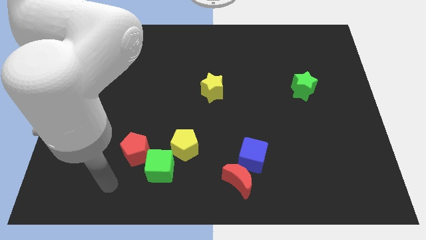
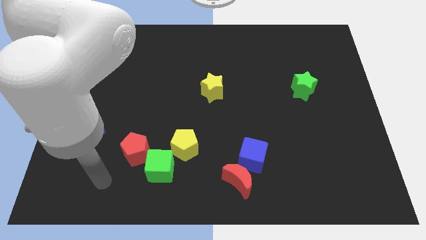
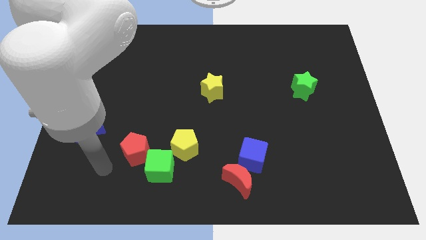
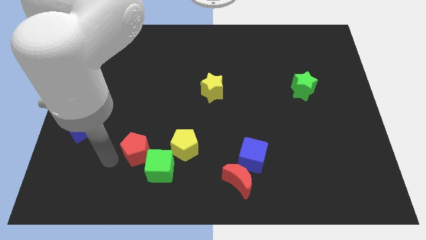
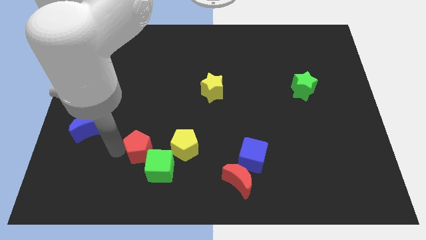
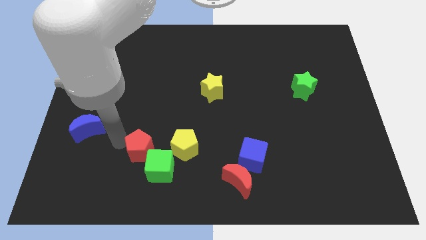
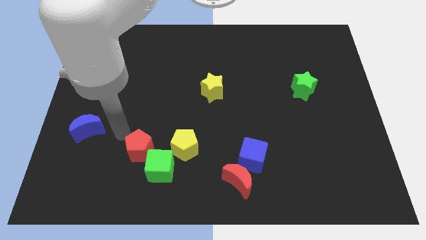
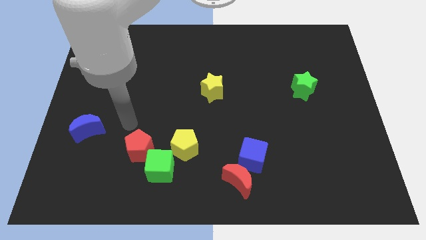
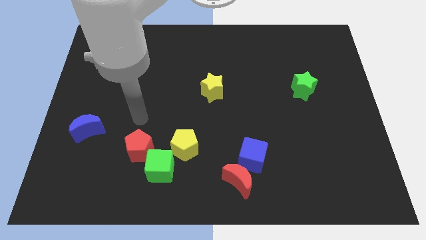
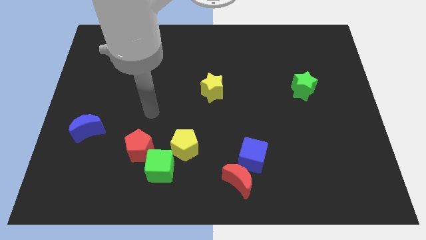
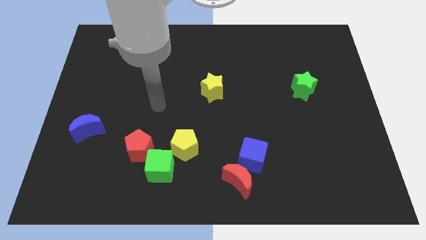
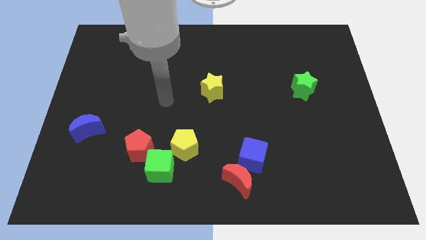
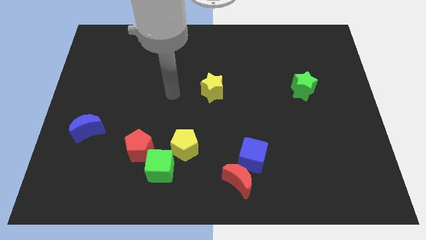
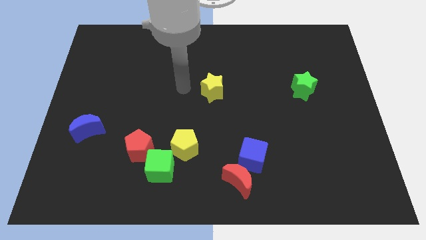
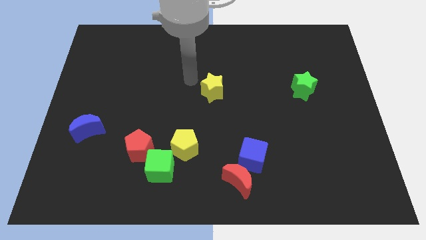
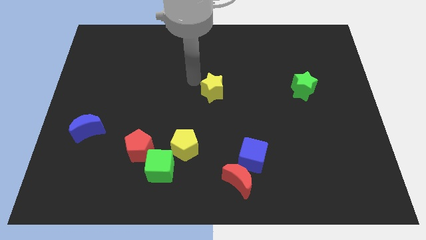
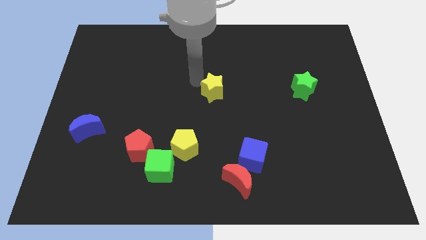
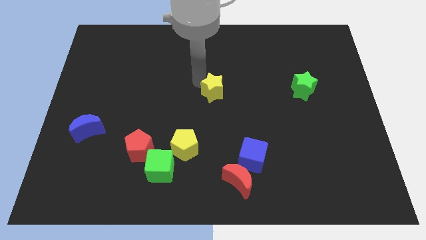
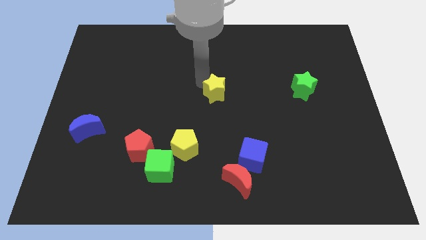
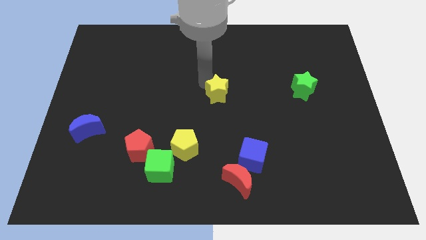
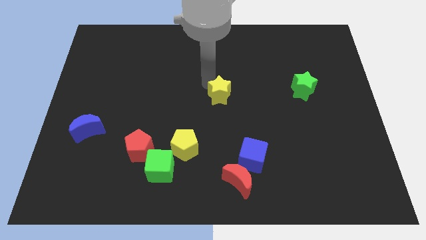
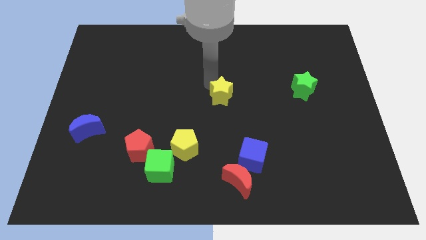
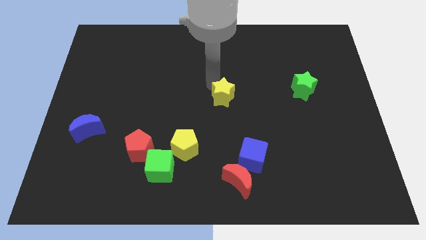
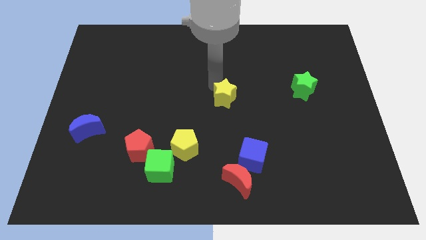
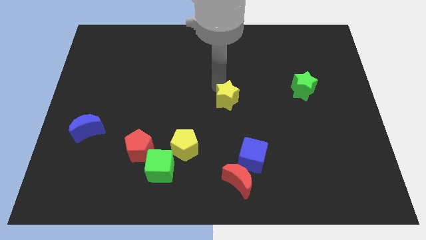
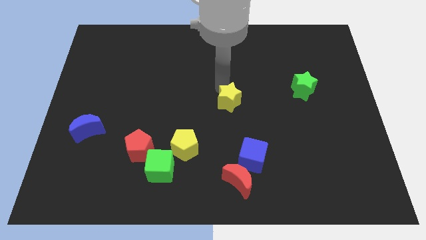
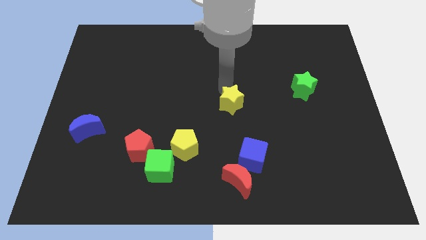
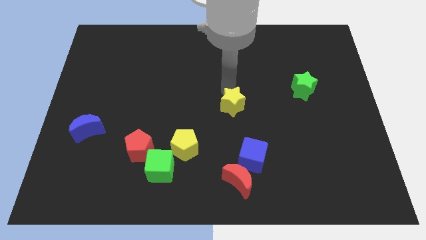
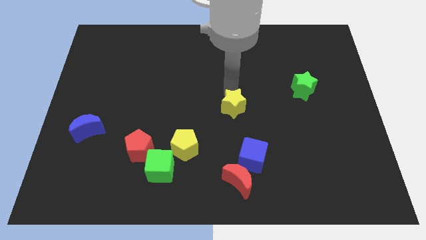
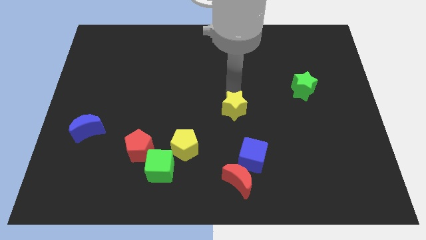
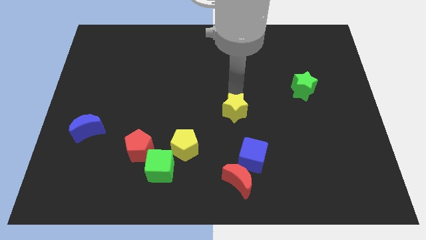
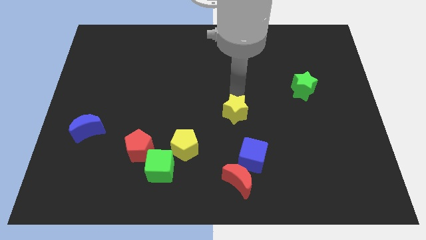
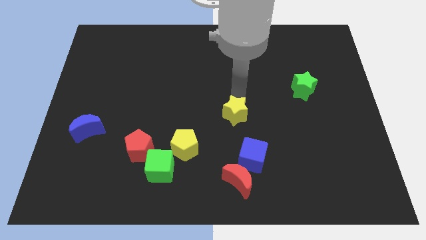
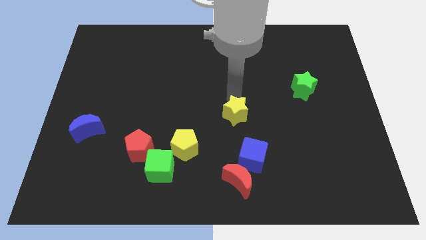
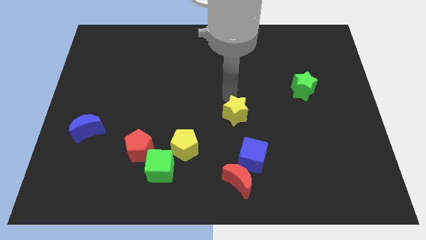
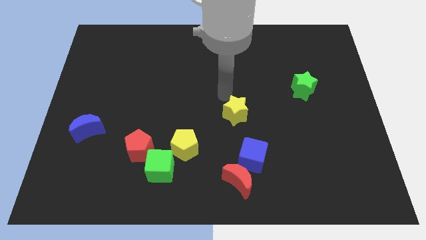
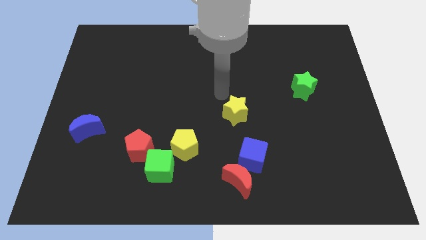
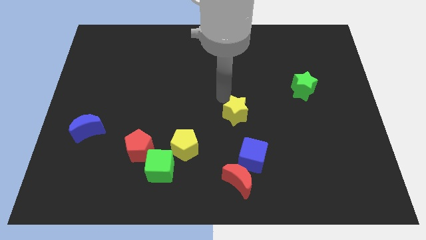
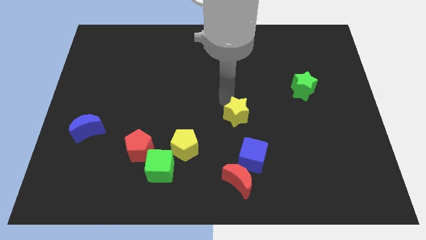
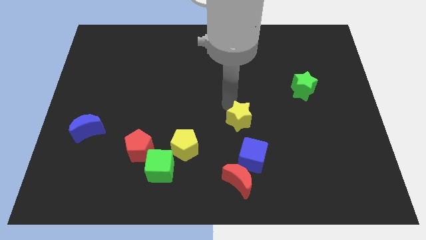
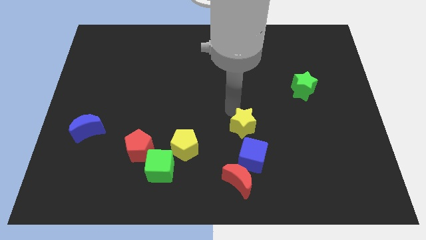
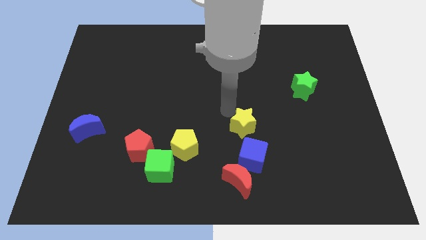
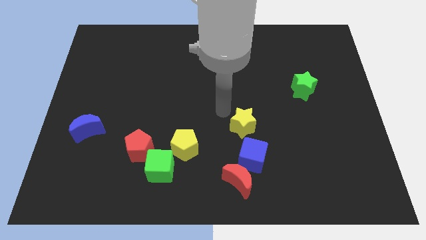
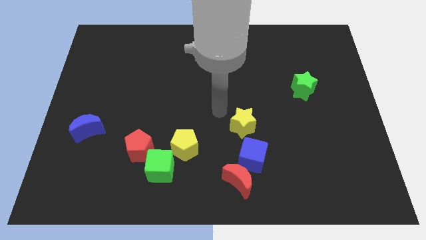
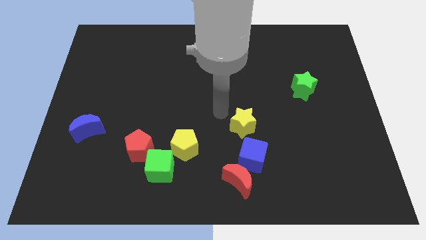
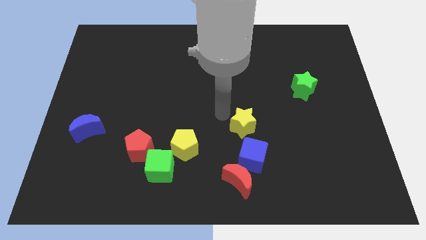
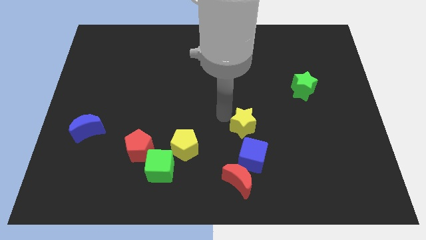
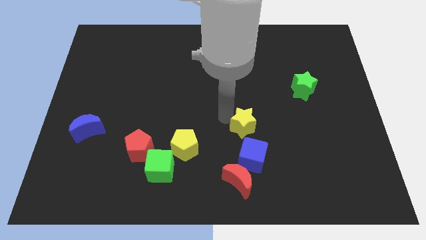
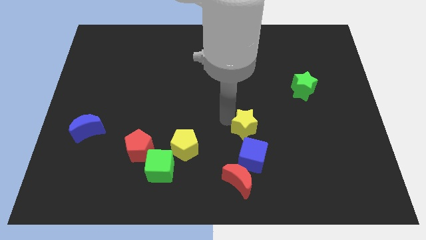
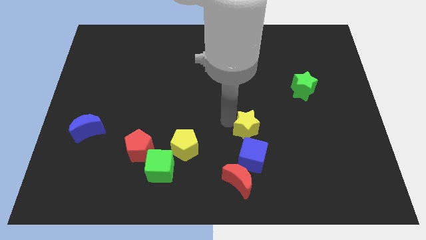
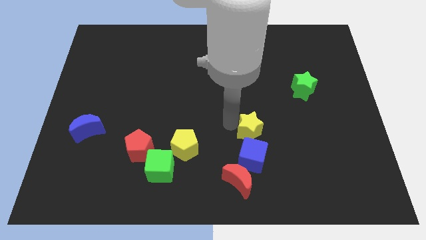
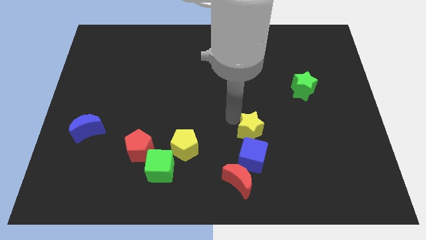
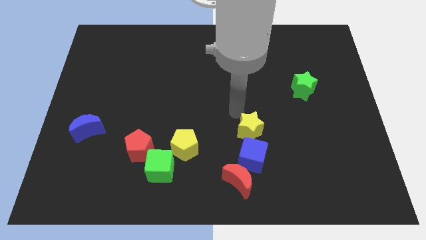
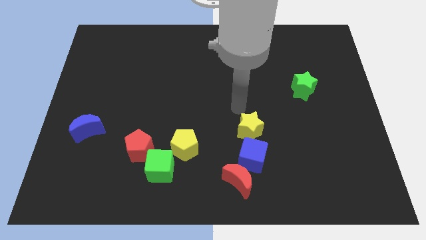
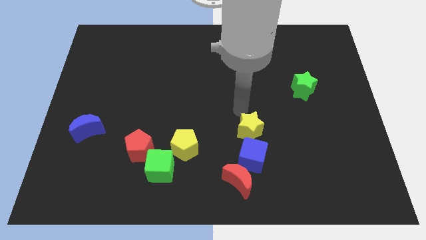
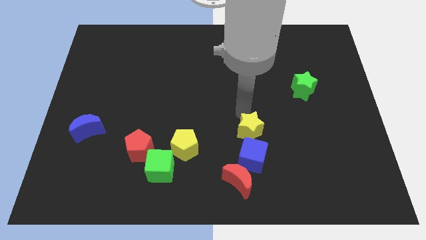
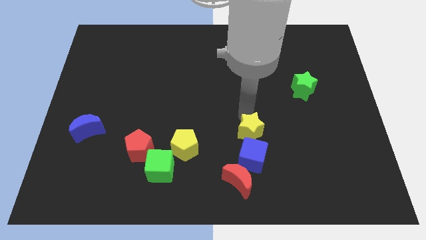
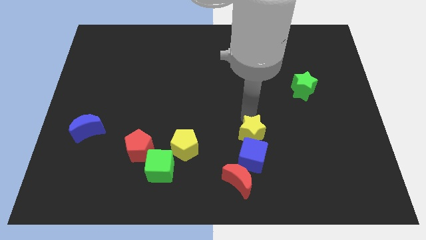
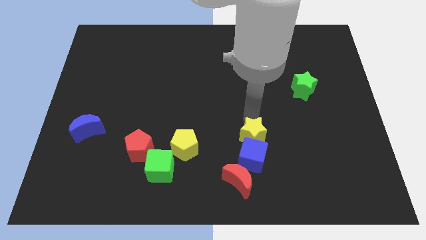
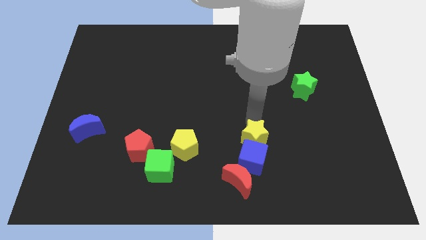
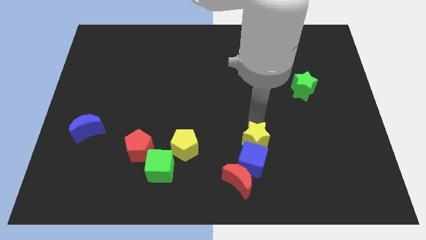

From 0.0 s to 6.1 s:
push the yellow star to the top right side of the red moon

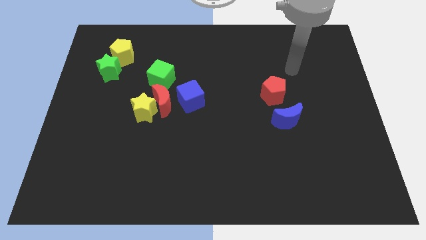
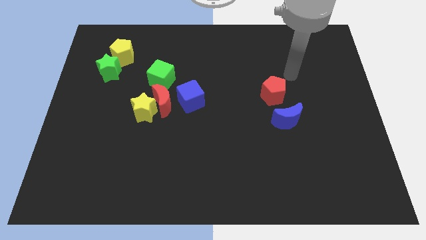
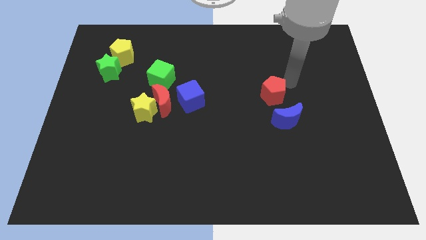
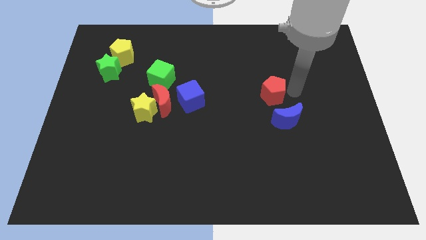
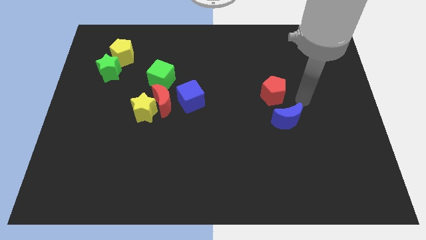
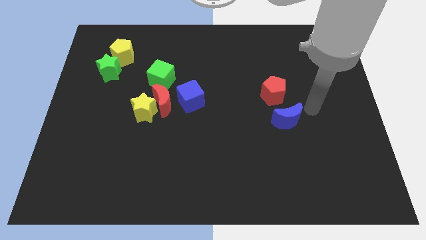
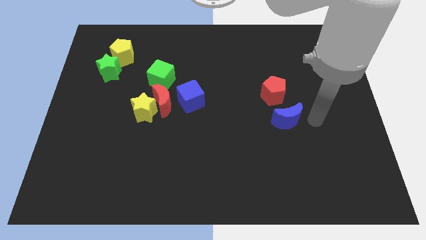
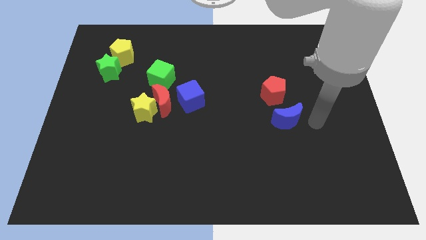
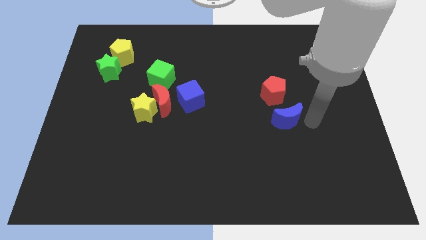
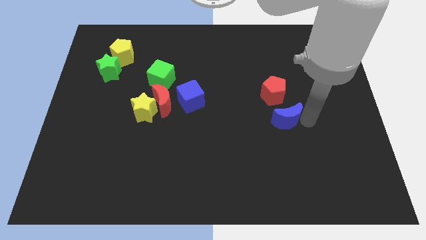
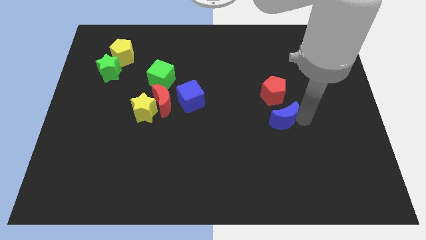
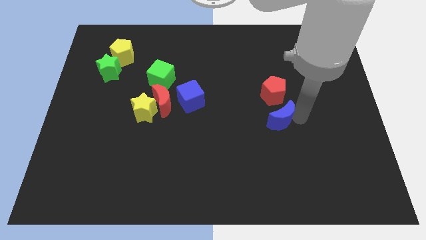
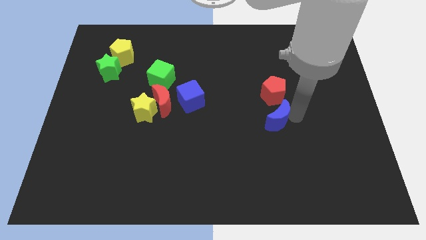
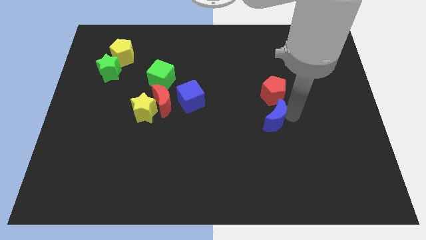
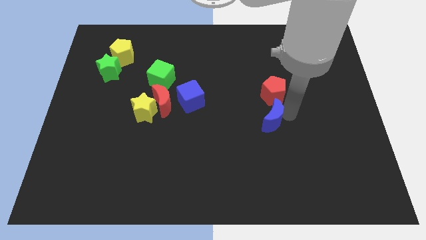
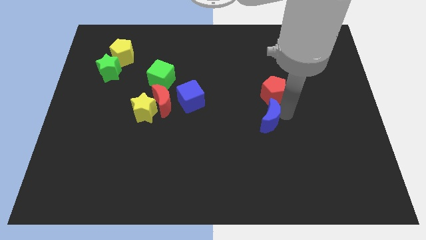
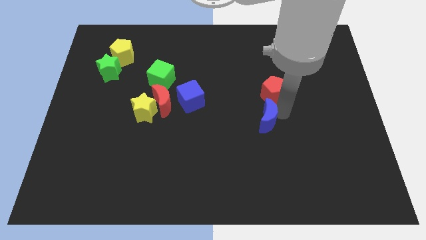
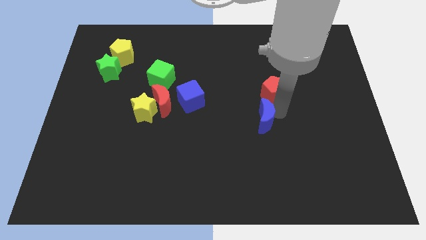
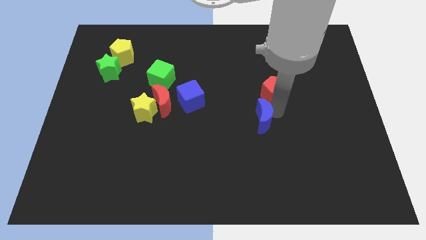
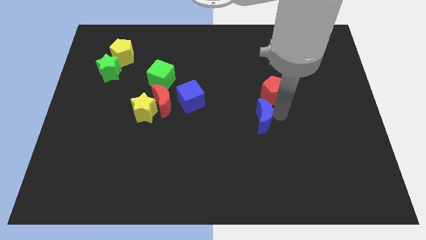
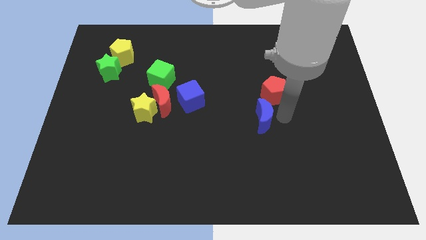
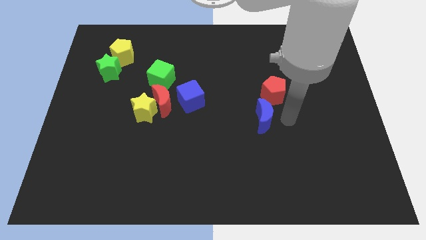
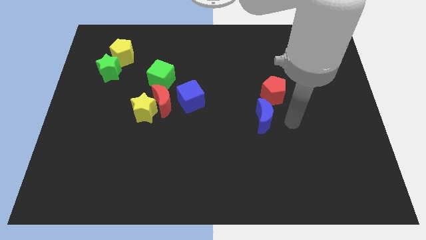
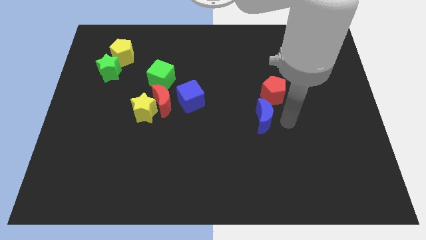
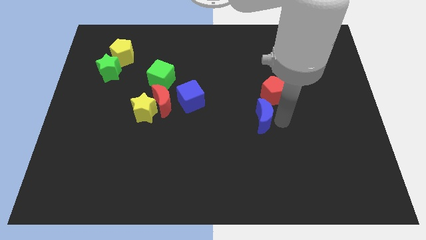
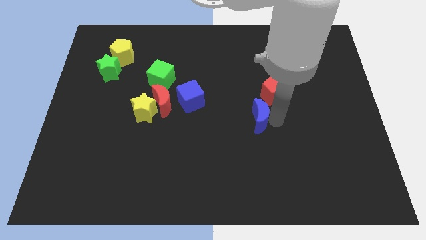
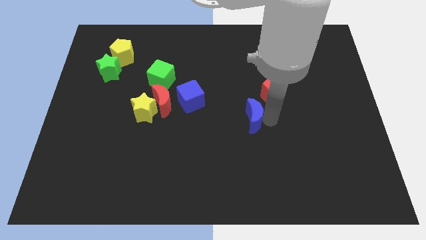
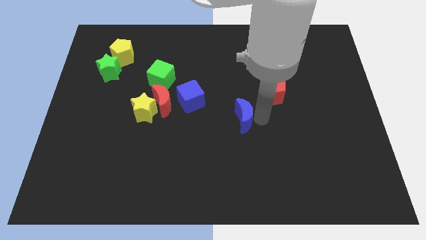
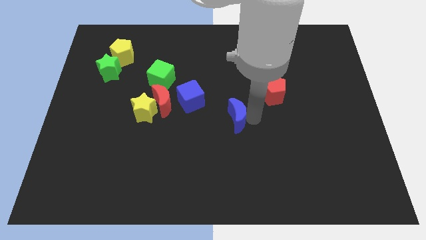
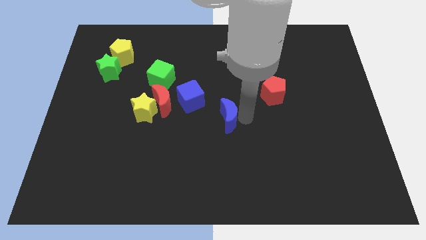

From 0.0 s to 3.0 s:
put the blue moon diagonally down and to the right of the blue cube
